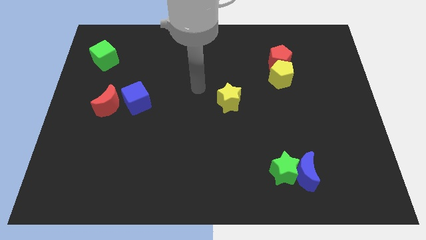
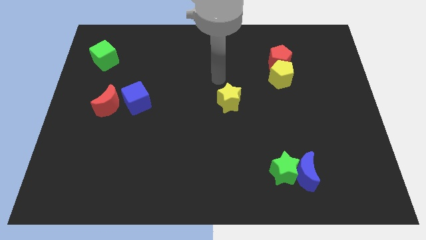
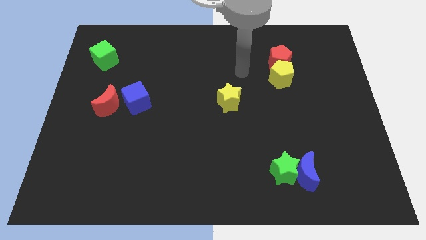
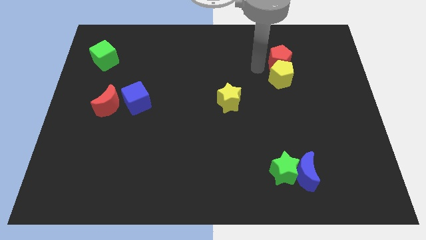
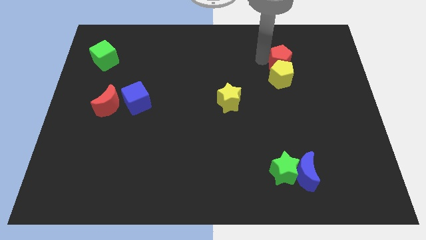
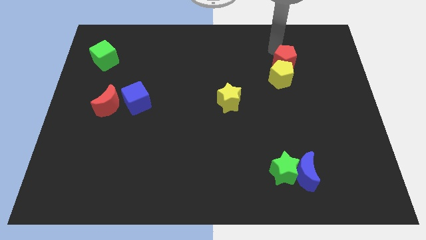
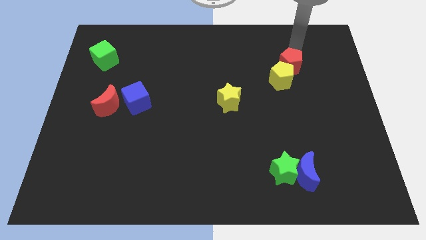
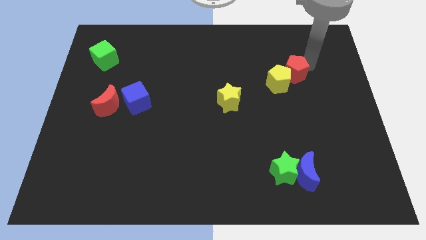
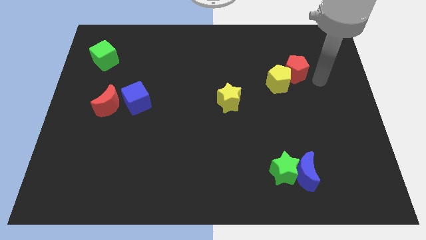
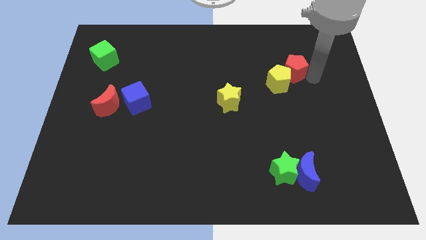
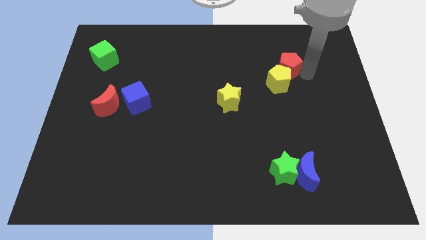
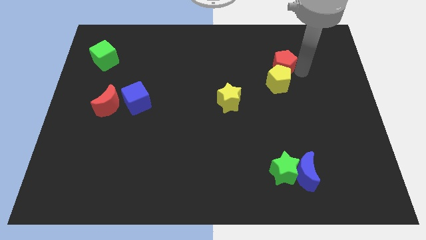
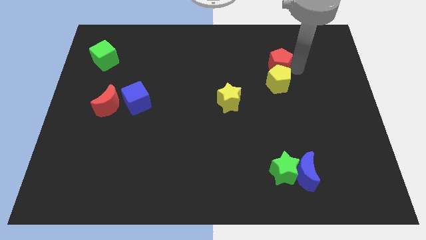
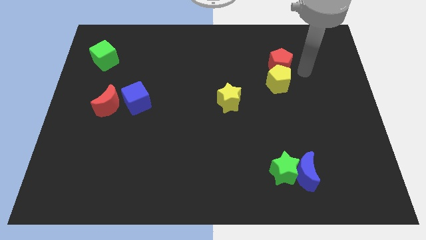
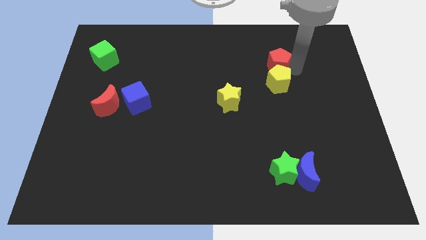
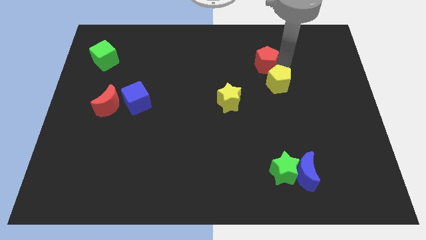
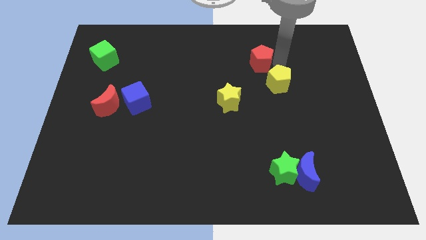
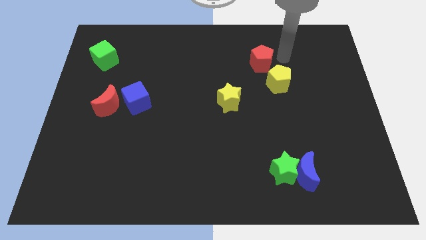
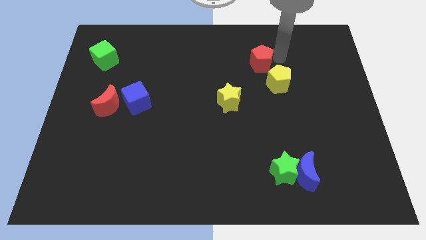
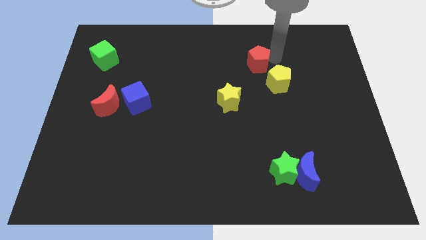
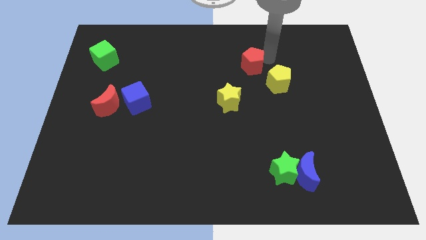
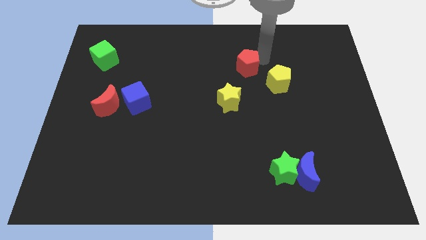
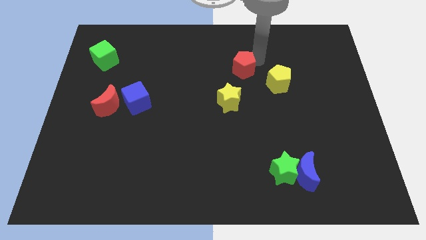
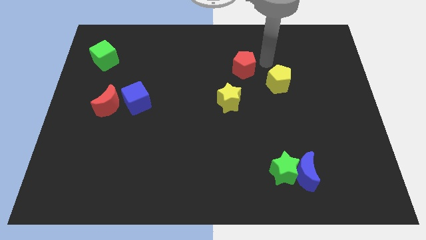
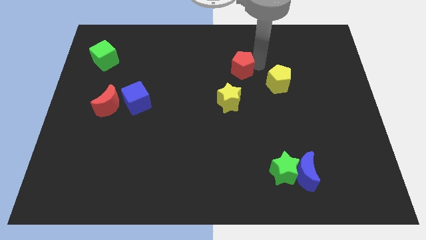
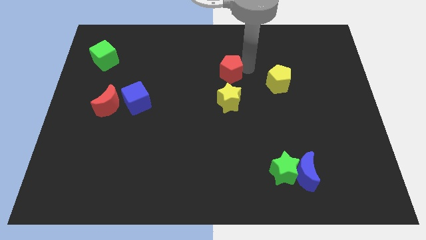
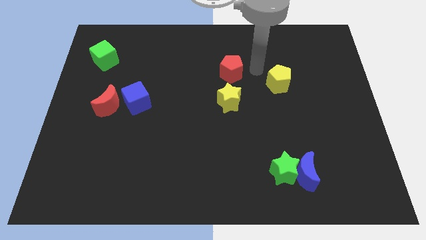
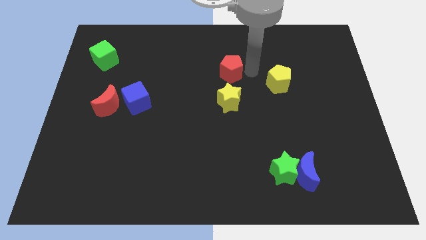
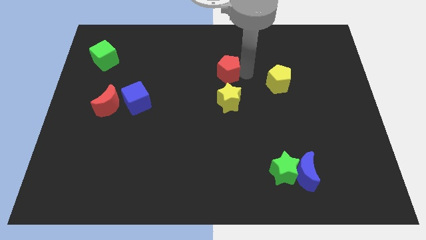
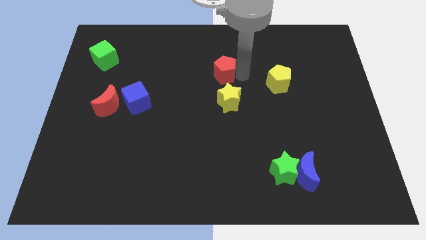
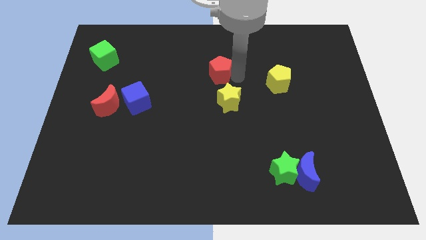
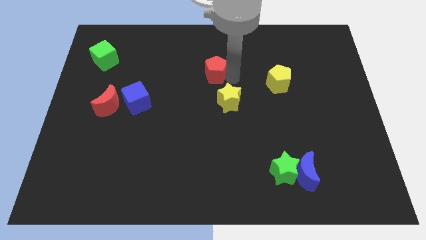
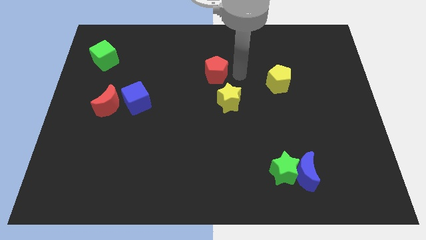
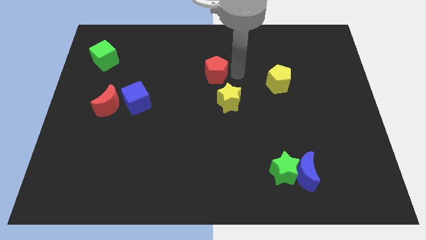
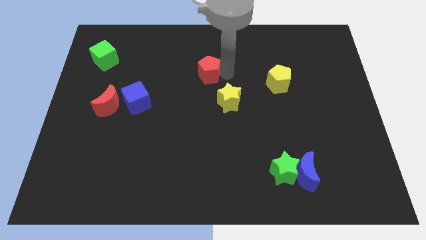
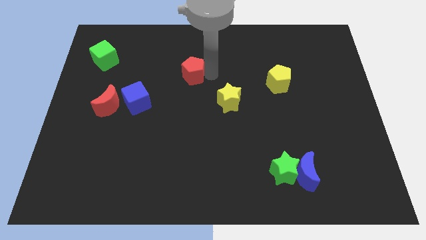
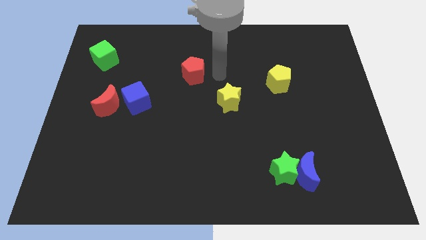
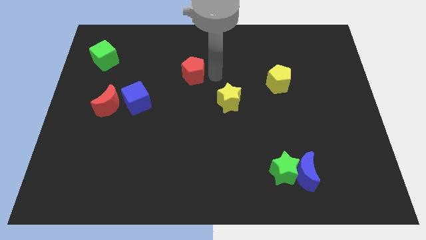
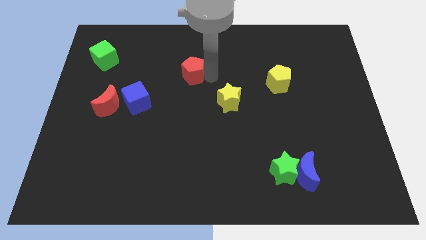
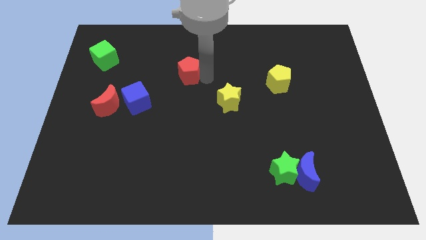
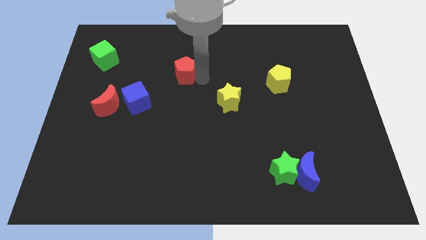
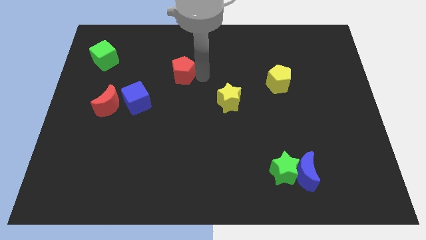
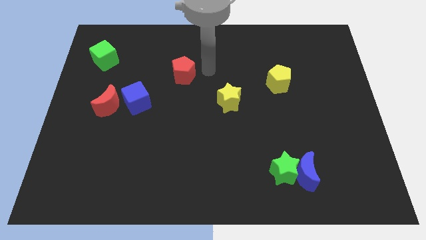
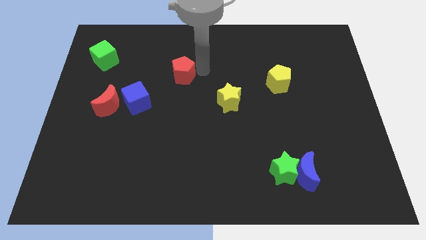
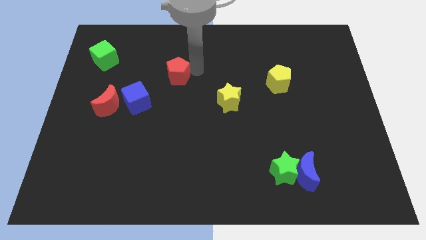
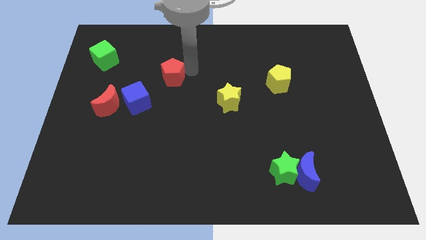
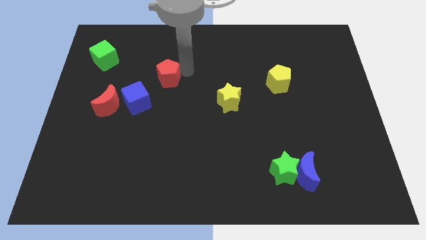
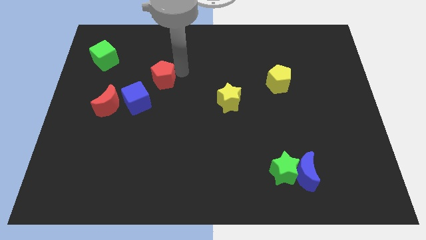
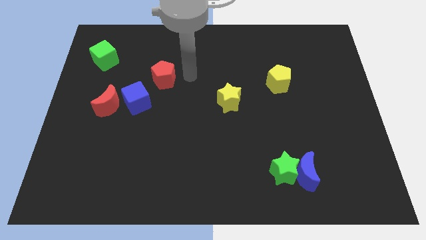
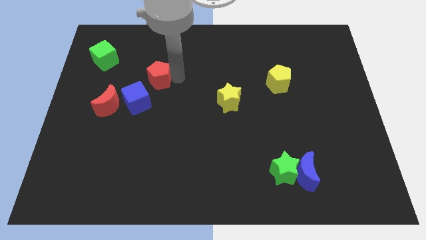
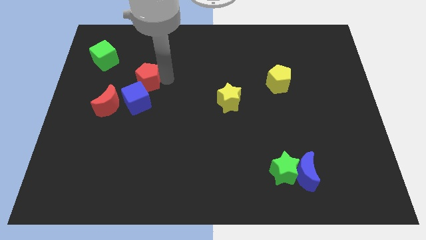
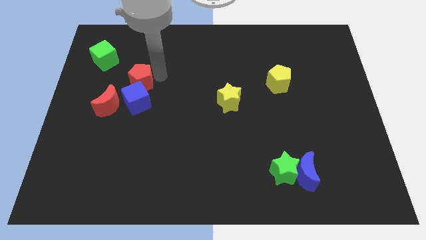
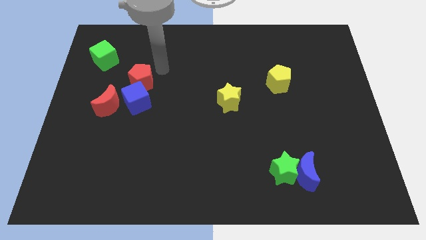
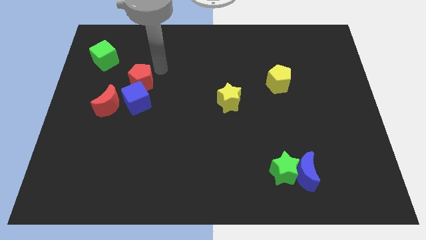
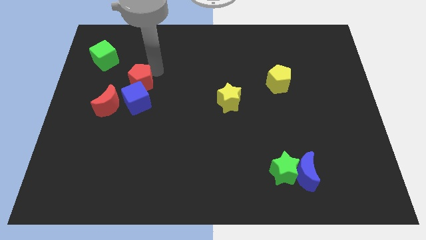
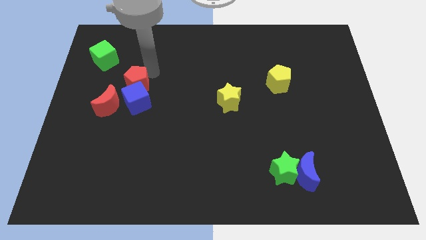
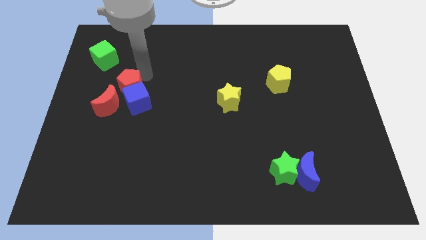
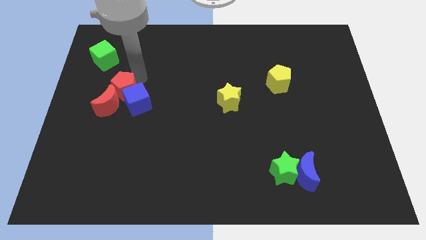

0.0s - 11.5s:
slide the red pentagon close to the red moon

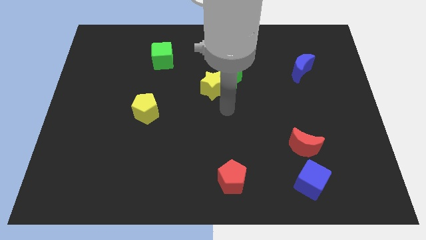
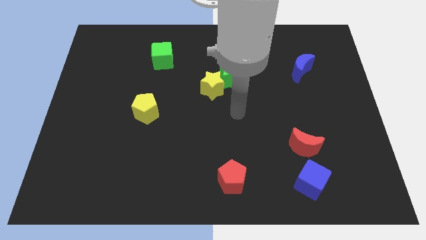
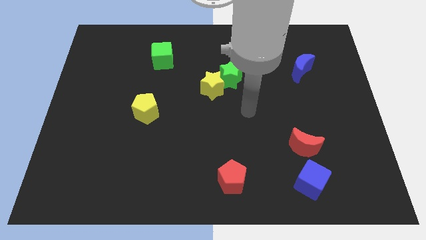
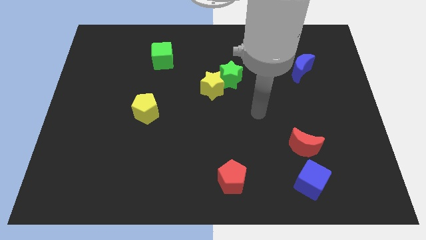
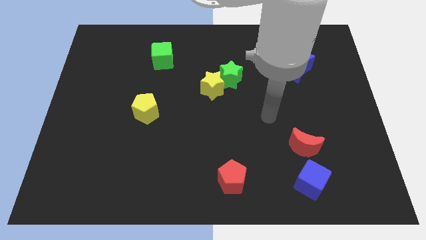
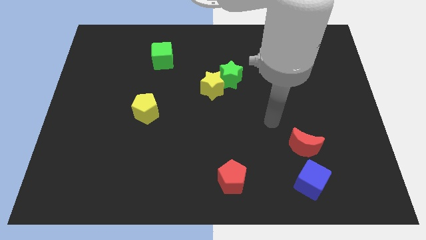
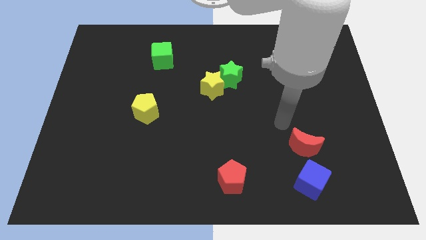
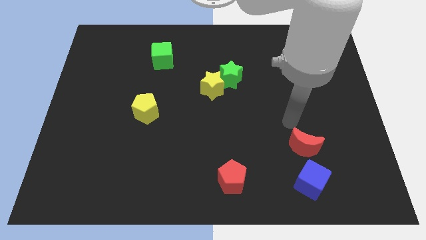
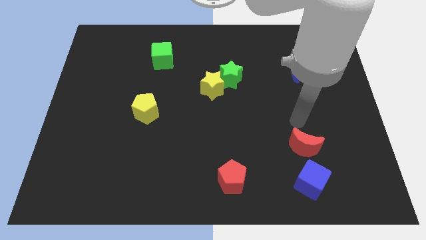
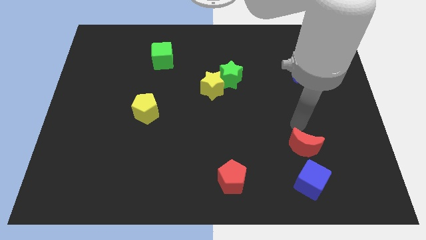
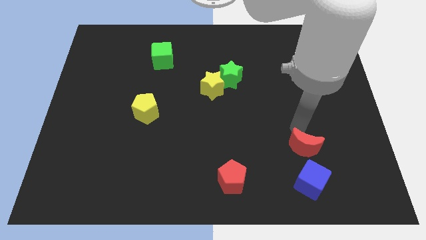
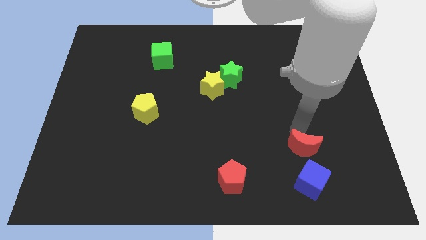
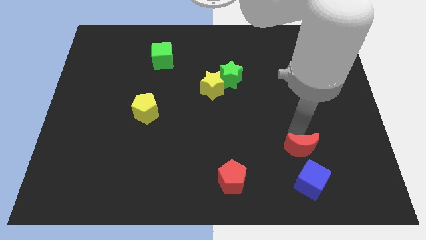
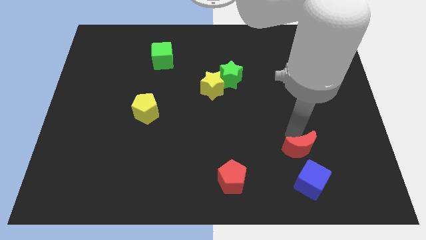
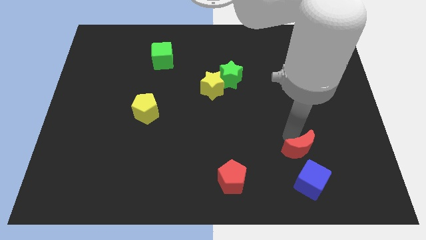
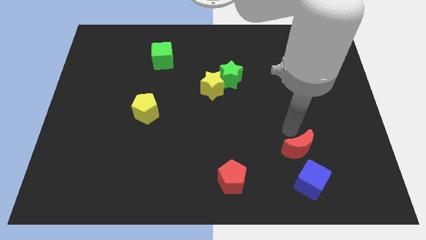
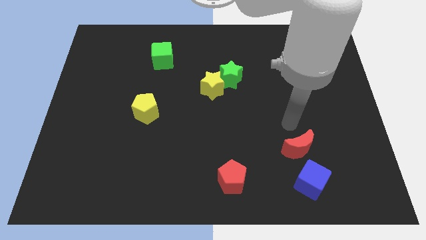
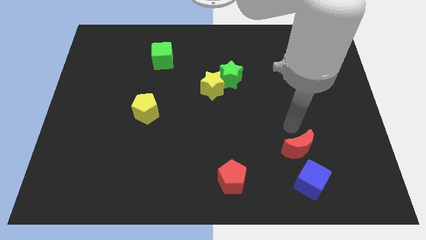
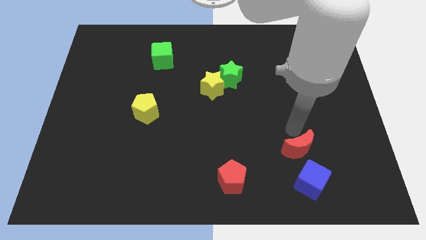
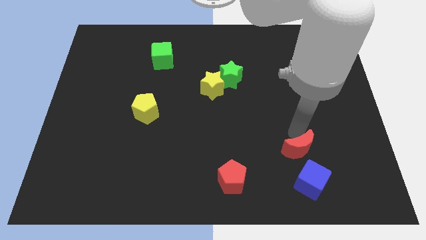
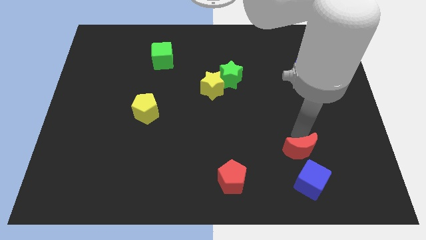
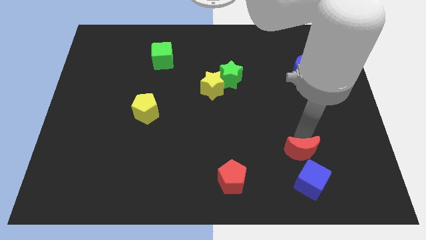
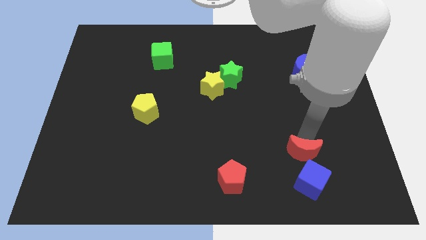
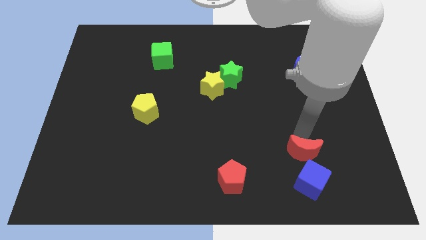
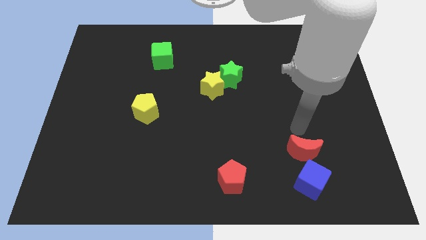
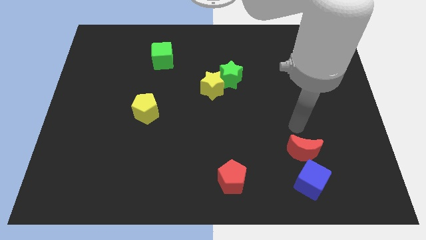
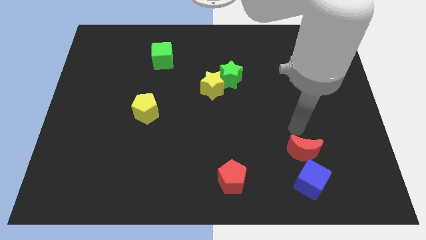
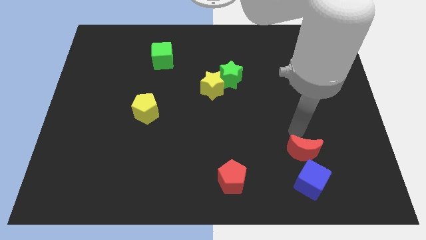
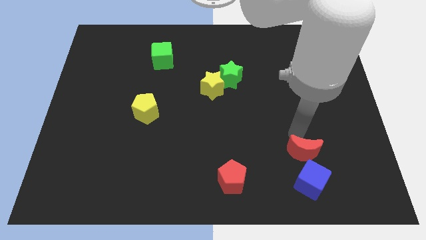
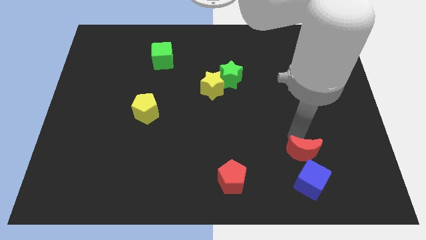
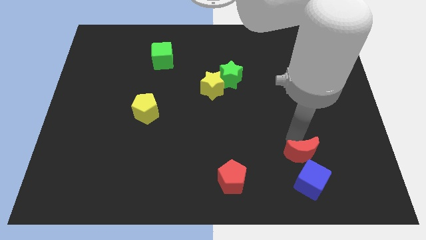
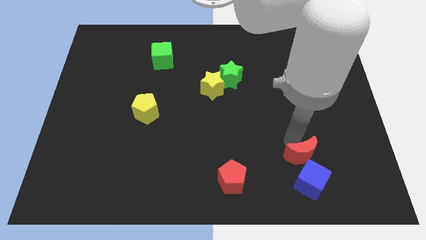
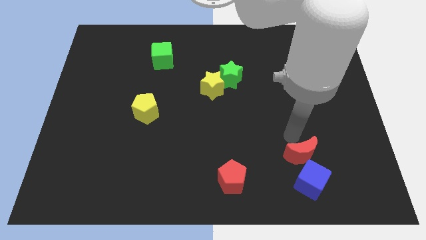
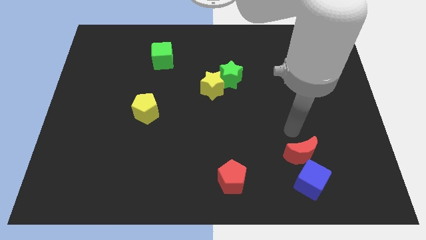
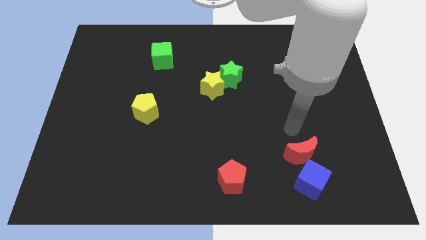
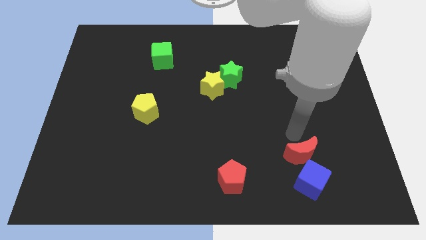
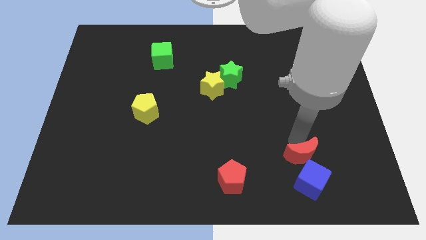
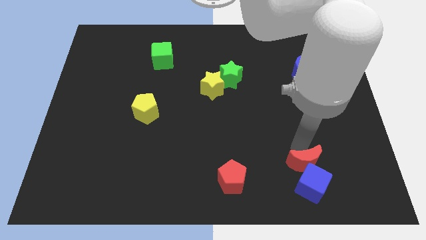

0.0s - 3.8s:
put the red moon towards the blue cube
